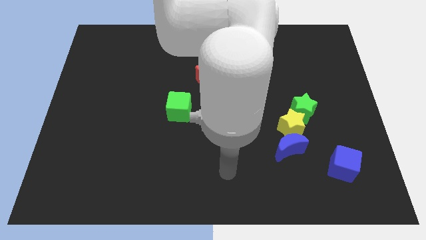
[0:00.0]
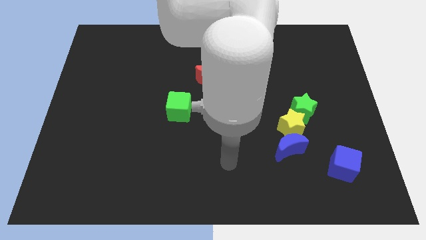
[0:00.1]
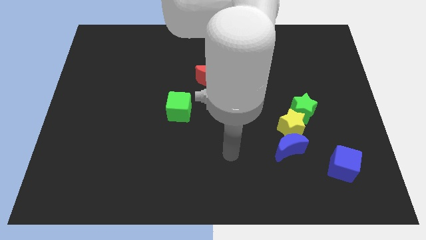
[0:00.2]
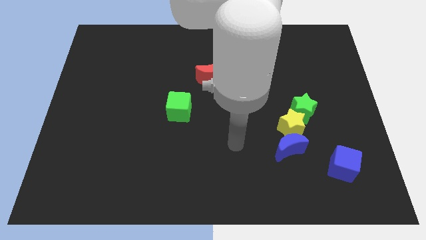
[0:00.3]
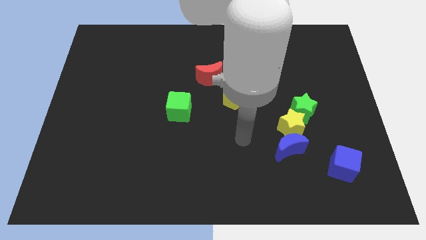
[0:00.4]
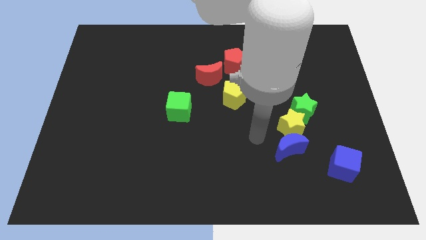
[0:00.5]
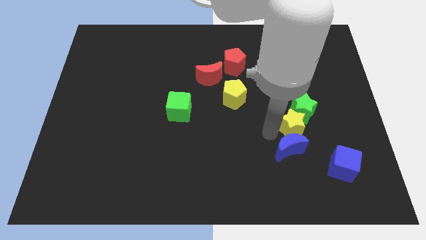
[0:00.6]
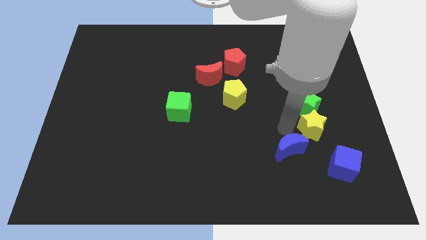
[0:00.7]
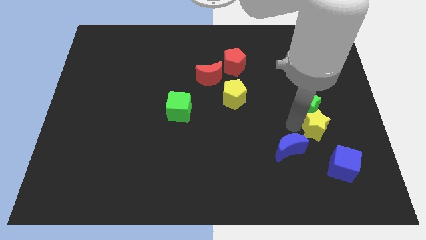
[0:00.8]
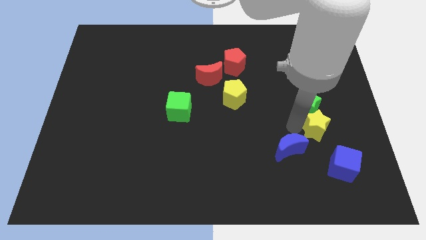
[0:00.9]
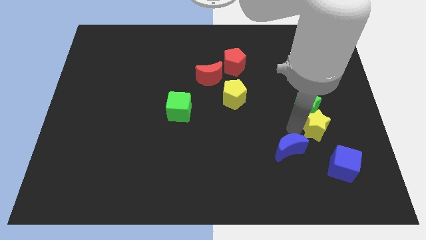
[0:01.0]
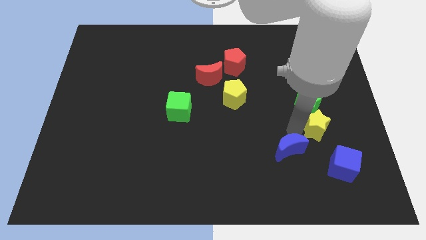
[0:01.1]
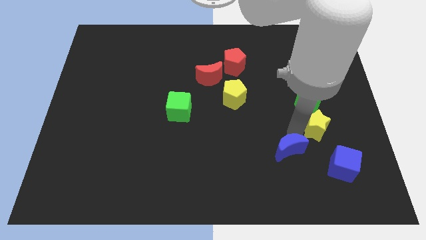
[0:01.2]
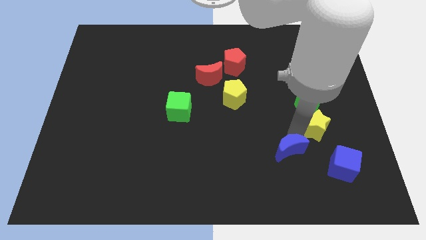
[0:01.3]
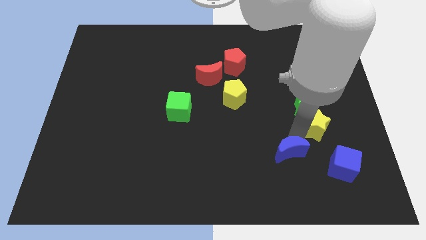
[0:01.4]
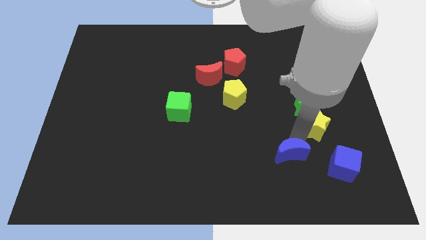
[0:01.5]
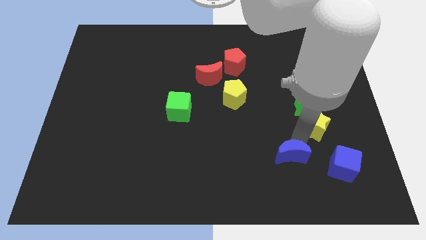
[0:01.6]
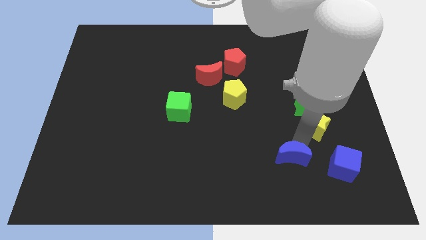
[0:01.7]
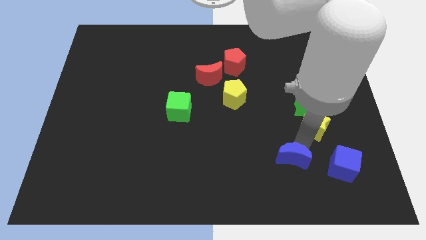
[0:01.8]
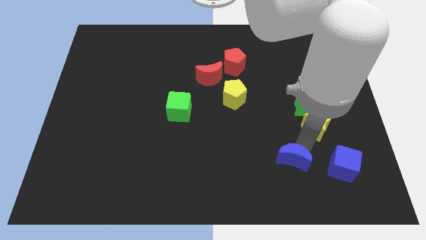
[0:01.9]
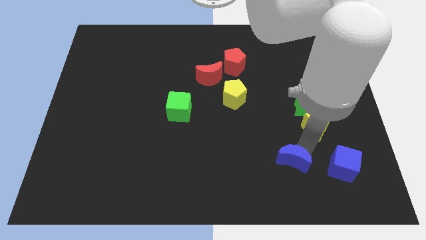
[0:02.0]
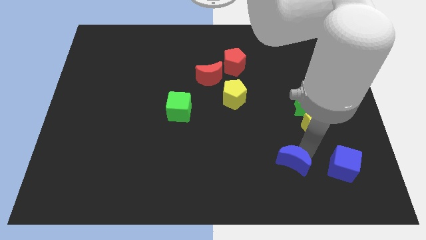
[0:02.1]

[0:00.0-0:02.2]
separate the blue moon from the yellow star

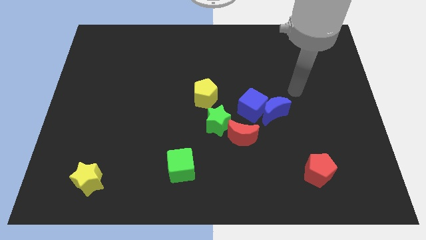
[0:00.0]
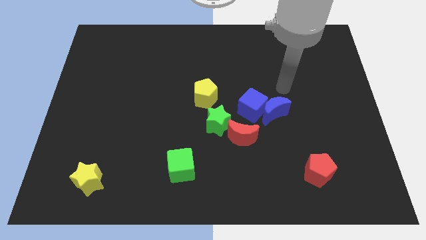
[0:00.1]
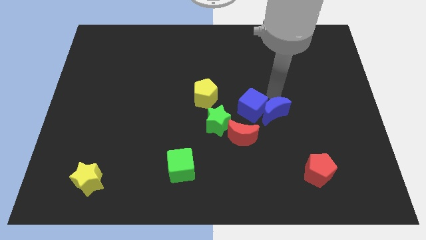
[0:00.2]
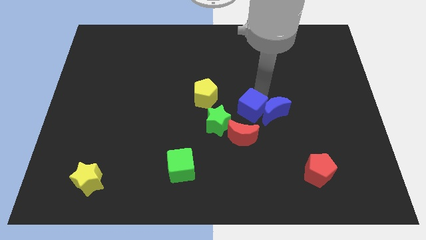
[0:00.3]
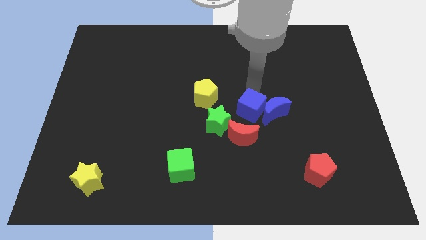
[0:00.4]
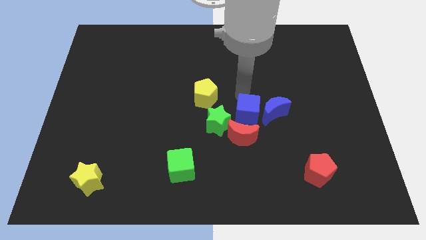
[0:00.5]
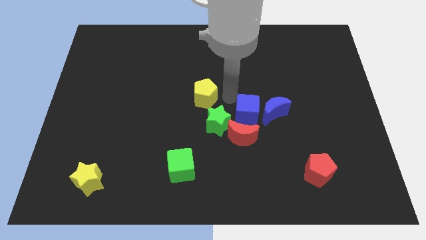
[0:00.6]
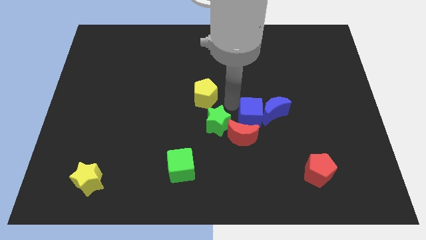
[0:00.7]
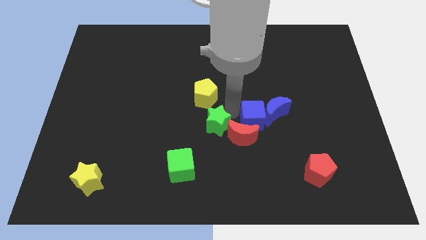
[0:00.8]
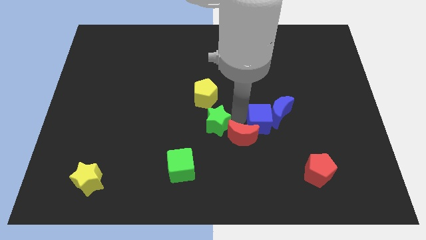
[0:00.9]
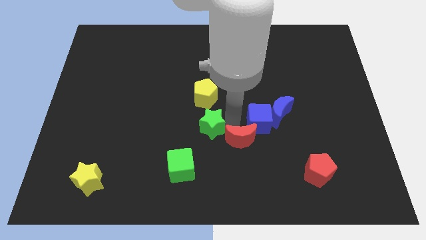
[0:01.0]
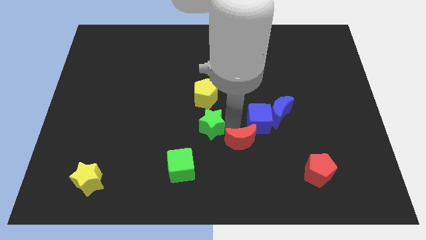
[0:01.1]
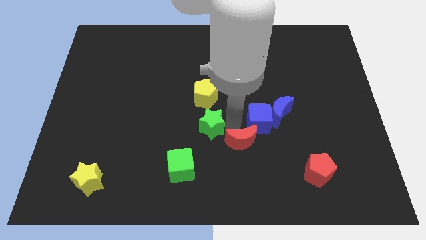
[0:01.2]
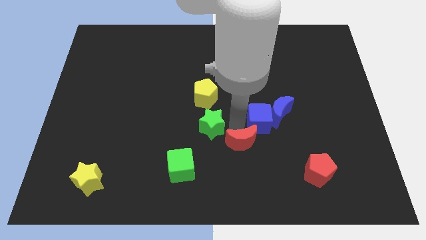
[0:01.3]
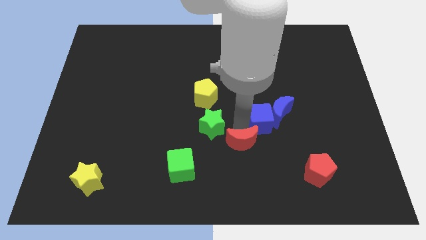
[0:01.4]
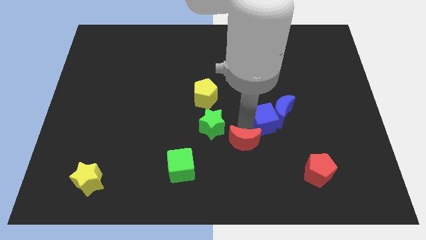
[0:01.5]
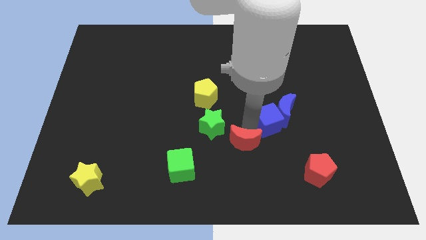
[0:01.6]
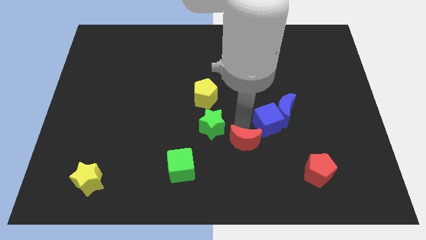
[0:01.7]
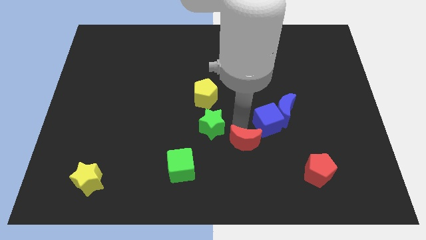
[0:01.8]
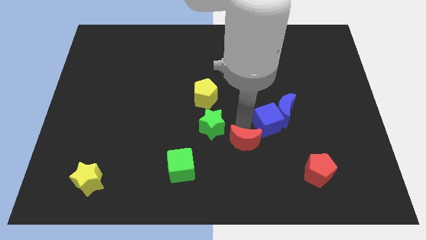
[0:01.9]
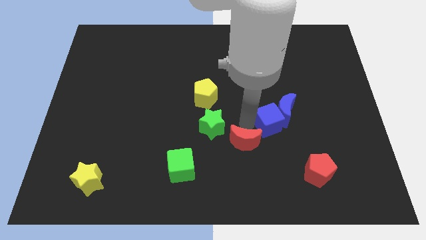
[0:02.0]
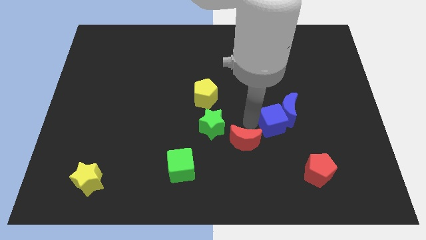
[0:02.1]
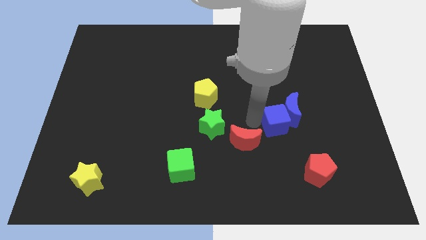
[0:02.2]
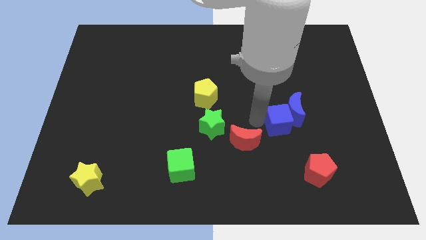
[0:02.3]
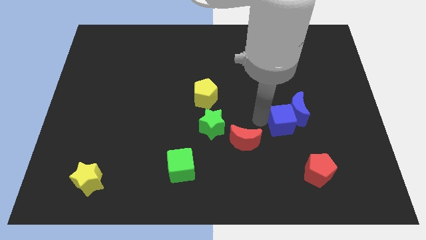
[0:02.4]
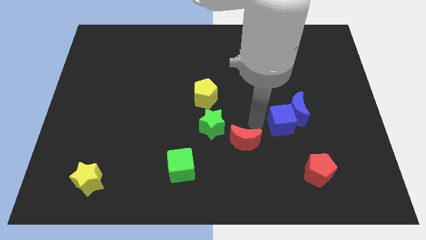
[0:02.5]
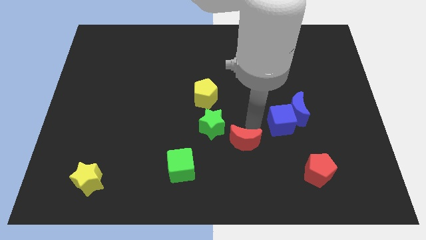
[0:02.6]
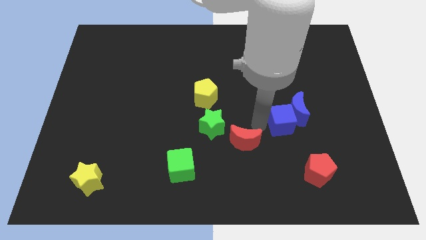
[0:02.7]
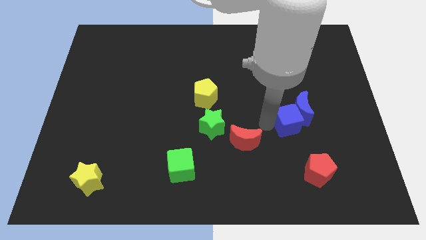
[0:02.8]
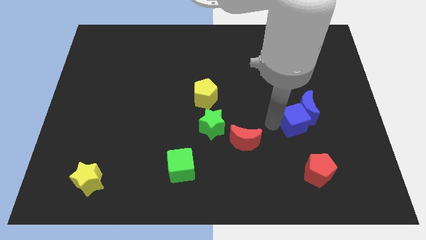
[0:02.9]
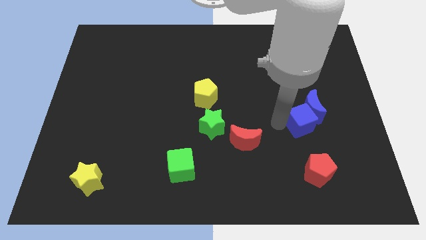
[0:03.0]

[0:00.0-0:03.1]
move the blue cube away from the group of blocks

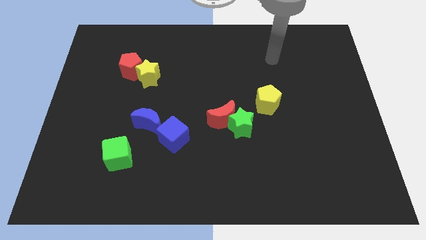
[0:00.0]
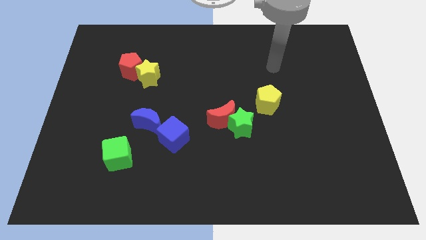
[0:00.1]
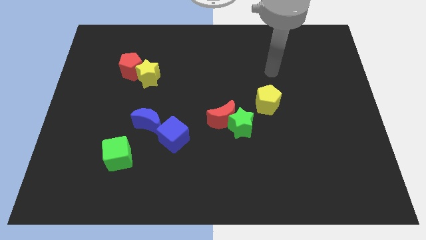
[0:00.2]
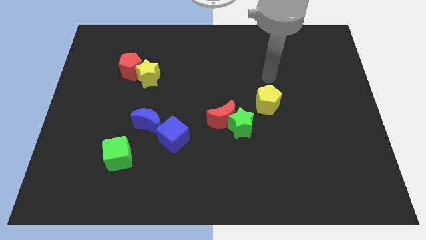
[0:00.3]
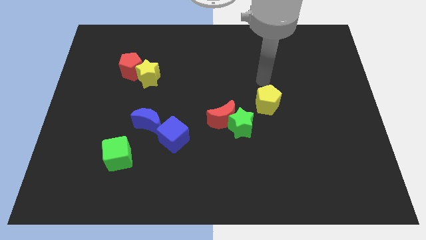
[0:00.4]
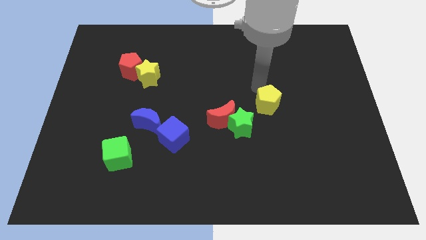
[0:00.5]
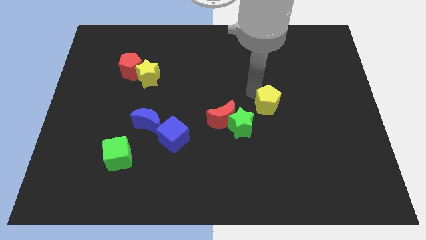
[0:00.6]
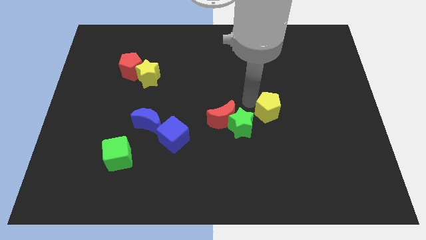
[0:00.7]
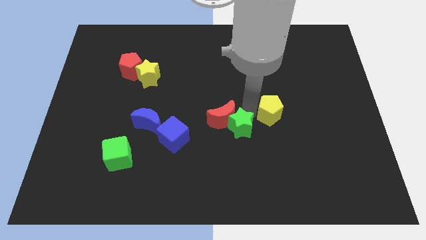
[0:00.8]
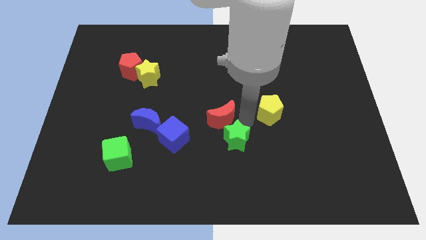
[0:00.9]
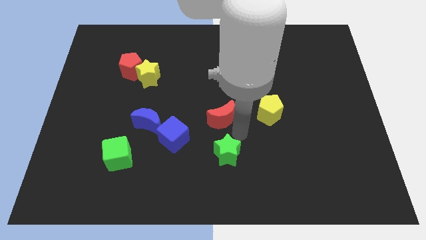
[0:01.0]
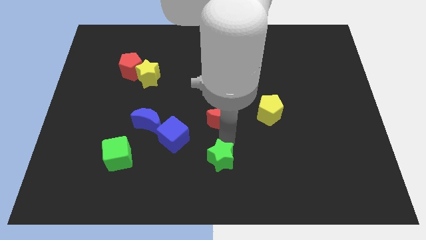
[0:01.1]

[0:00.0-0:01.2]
move the red moon away from the green star

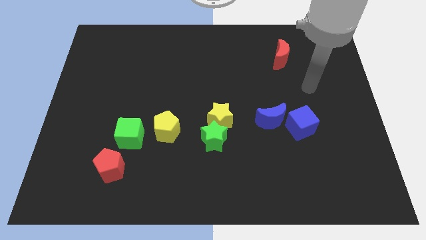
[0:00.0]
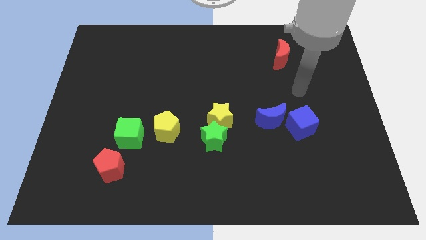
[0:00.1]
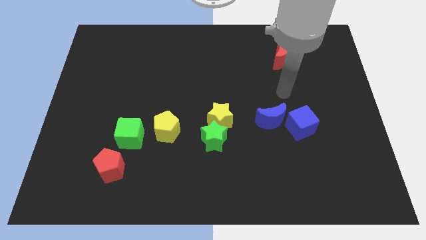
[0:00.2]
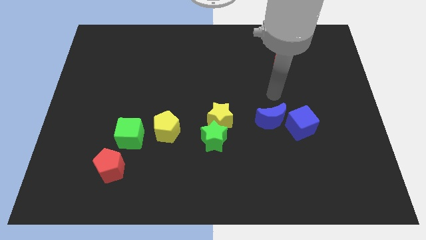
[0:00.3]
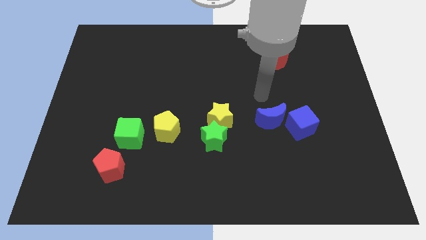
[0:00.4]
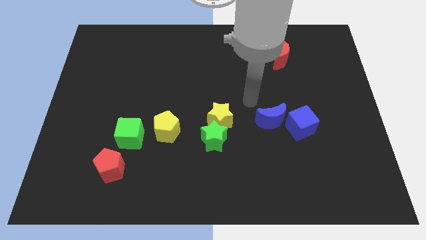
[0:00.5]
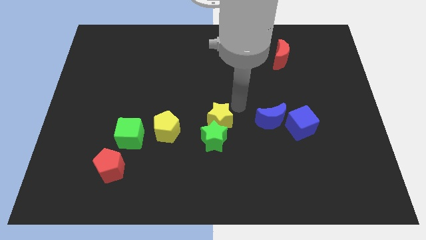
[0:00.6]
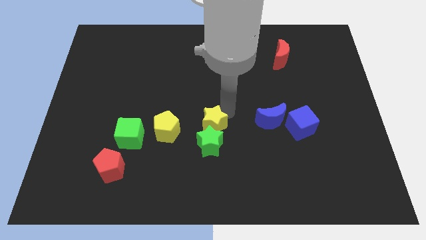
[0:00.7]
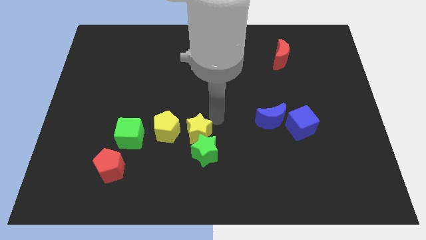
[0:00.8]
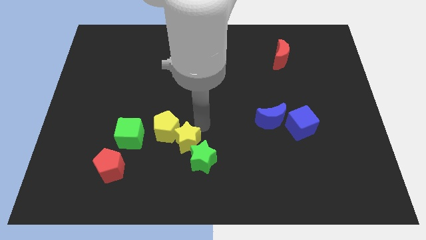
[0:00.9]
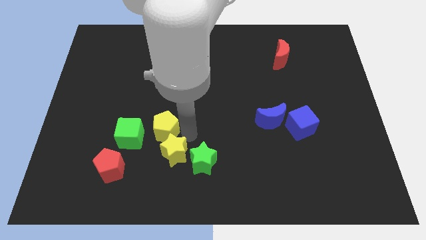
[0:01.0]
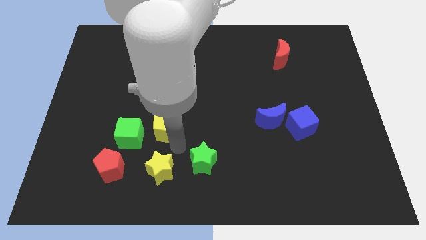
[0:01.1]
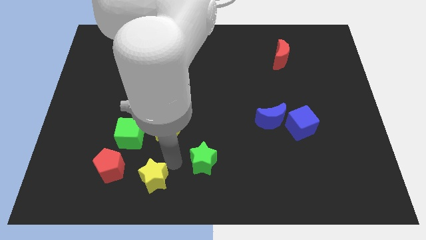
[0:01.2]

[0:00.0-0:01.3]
pull the green star apart from the yellow star

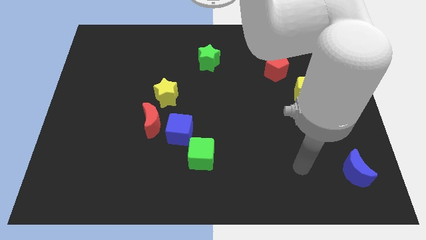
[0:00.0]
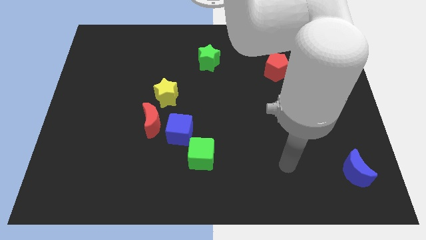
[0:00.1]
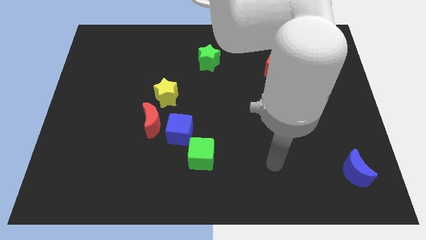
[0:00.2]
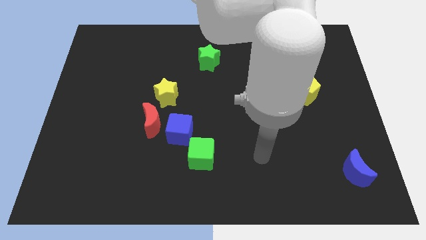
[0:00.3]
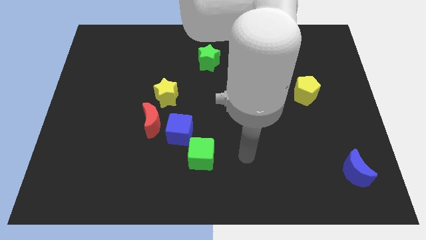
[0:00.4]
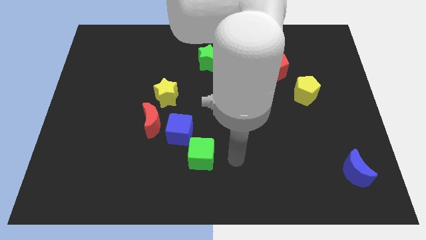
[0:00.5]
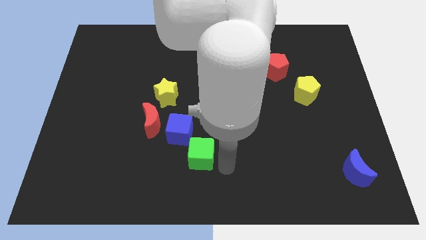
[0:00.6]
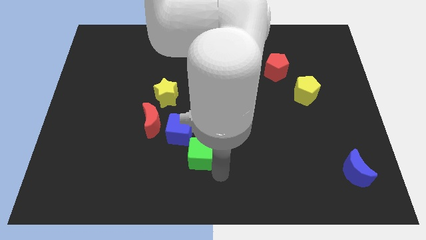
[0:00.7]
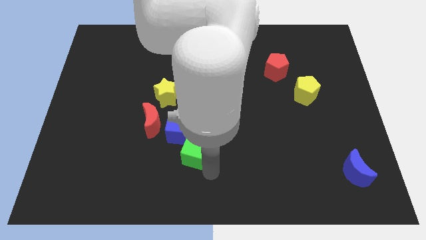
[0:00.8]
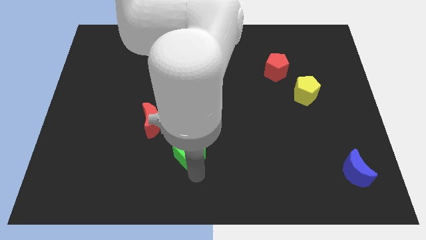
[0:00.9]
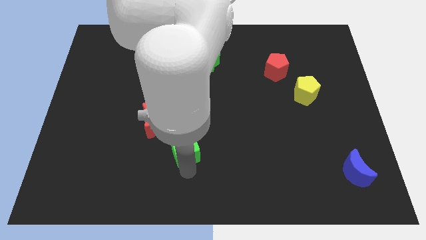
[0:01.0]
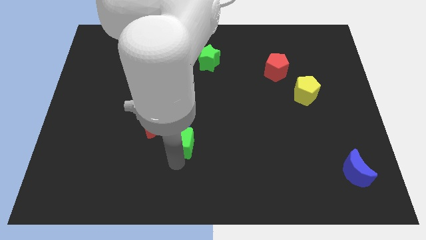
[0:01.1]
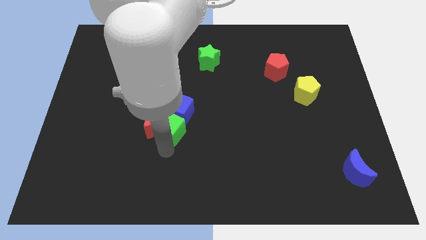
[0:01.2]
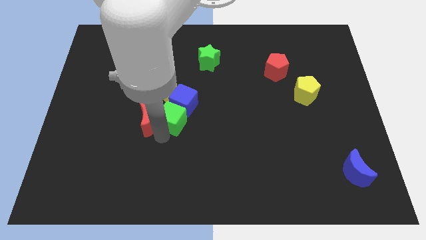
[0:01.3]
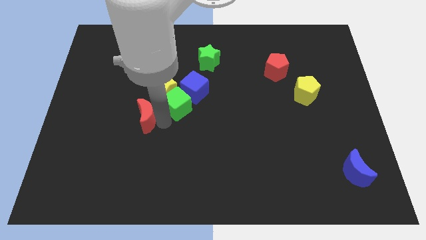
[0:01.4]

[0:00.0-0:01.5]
move the blue cube away from the red moon and green cube

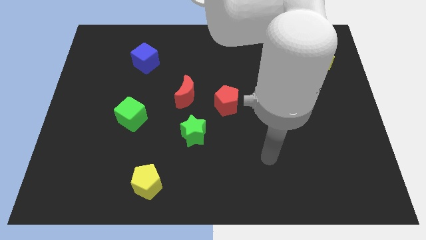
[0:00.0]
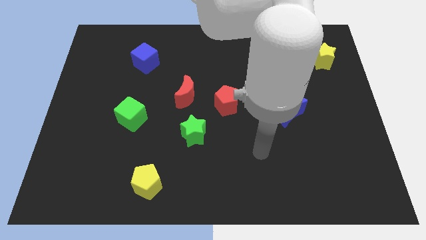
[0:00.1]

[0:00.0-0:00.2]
pull the red moon apart from the red pentagon
